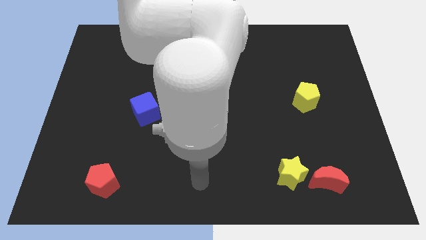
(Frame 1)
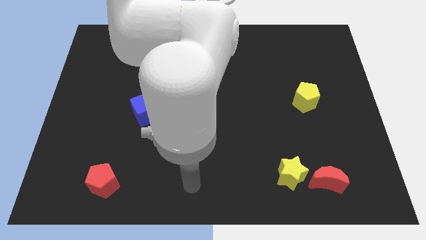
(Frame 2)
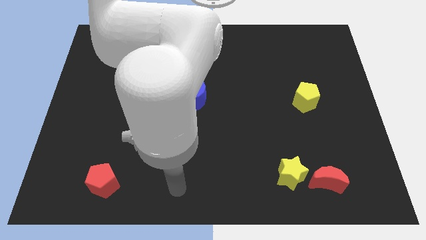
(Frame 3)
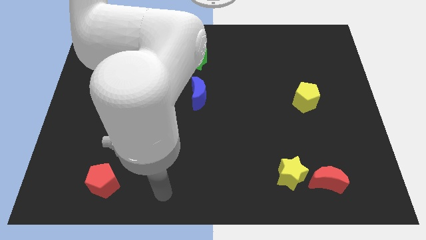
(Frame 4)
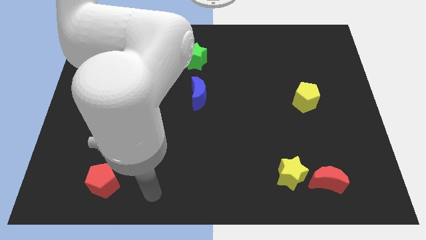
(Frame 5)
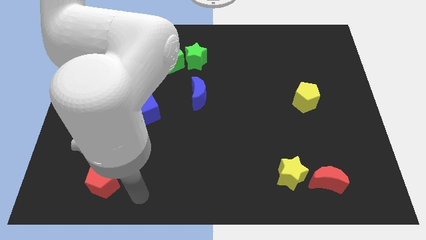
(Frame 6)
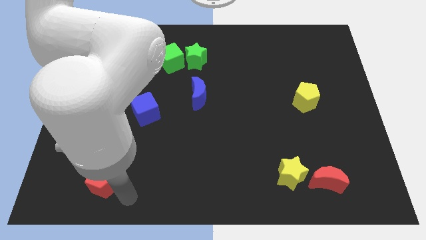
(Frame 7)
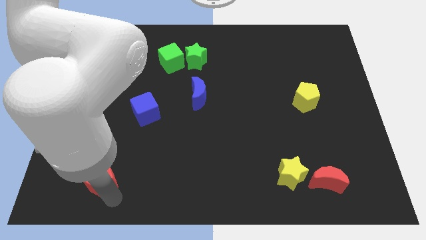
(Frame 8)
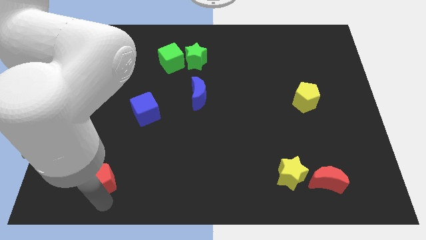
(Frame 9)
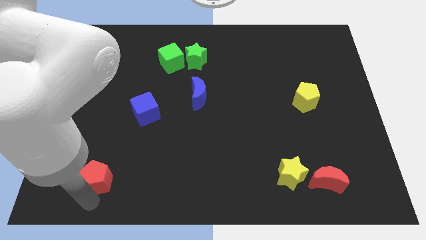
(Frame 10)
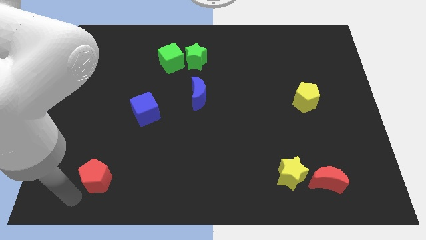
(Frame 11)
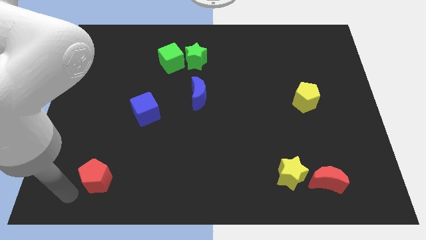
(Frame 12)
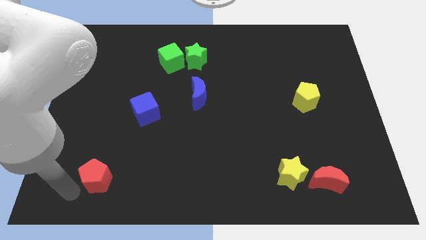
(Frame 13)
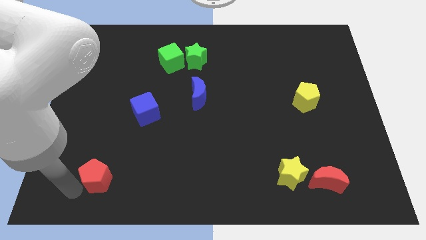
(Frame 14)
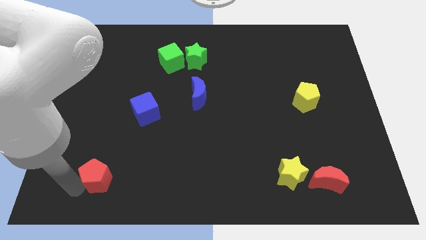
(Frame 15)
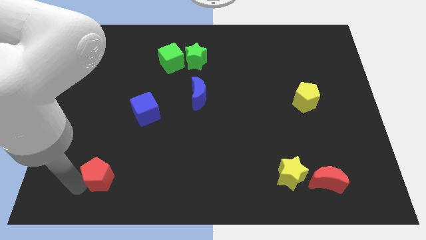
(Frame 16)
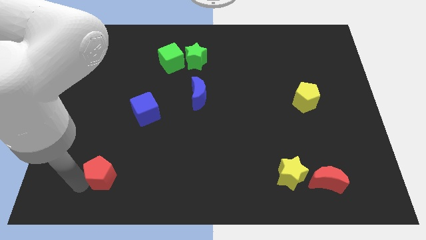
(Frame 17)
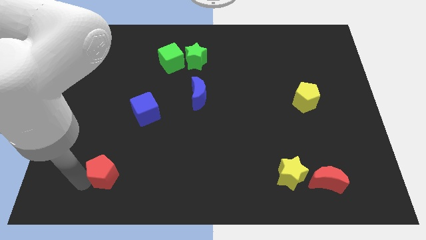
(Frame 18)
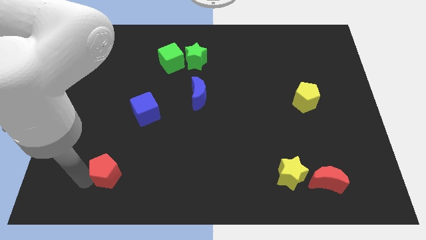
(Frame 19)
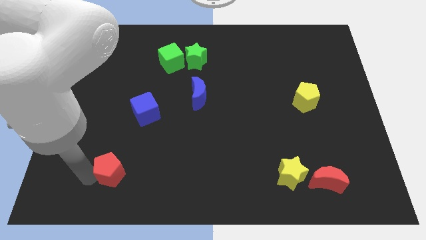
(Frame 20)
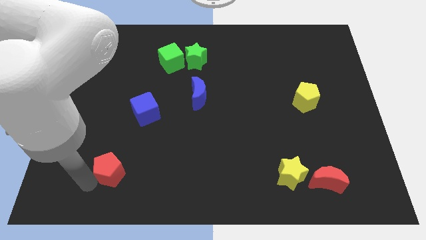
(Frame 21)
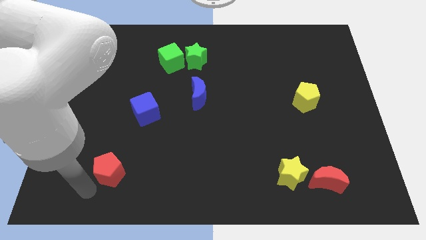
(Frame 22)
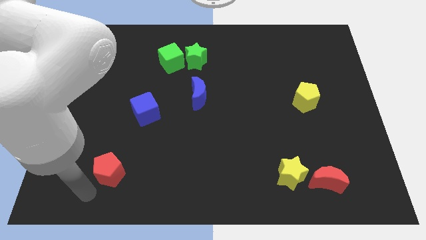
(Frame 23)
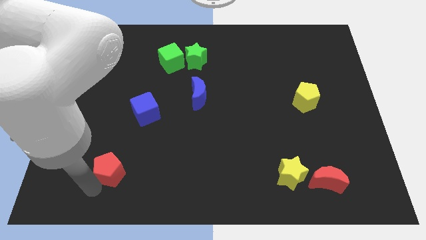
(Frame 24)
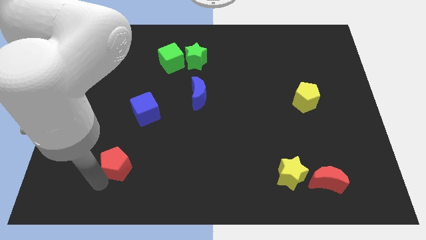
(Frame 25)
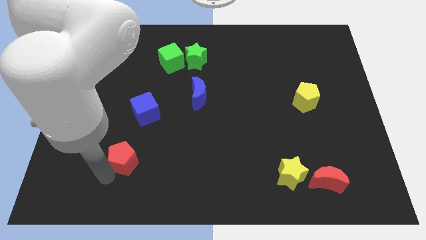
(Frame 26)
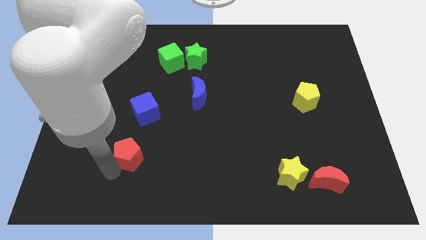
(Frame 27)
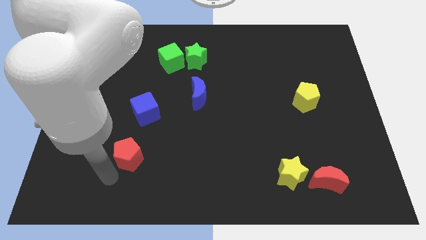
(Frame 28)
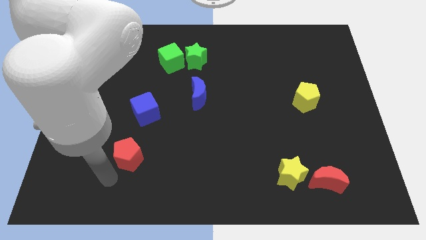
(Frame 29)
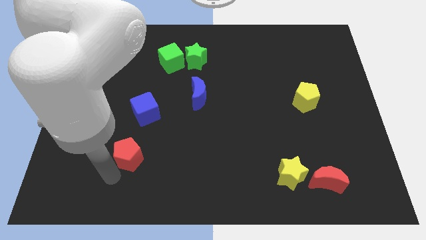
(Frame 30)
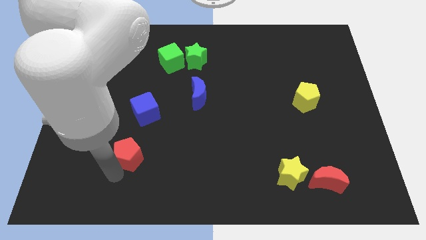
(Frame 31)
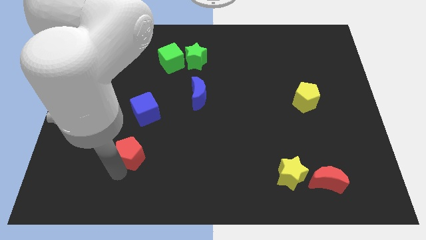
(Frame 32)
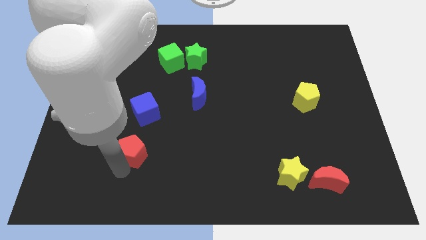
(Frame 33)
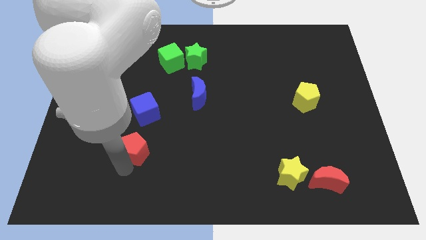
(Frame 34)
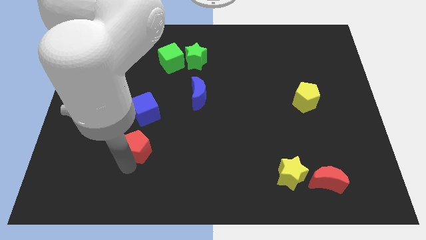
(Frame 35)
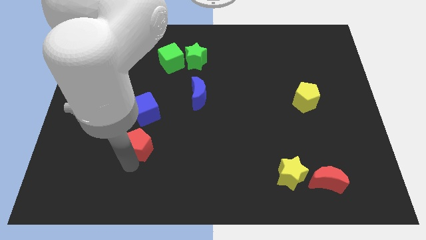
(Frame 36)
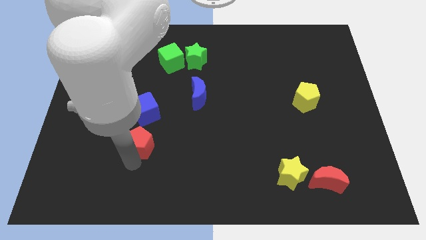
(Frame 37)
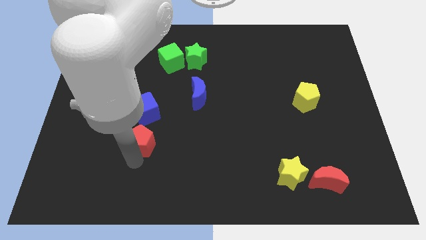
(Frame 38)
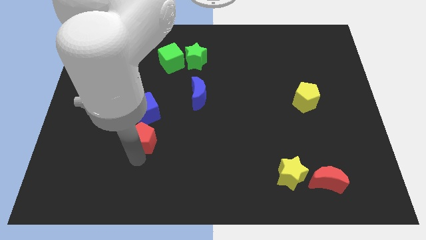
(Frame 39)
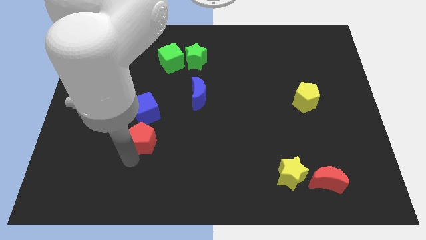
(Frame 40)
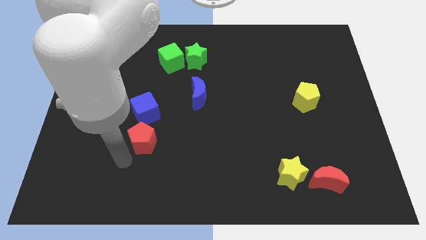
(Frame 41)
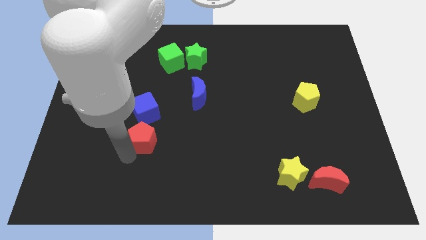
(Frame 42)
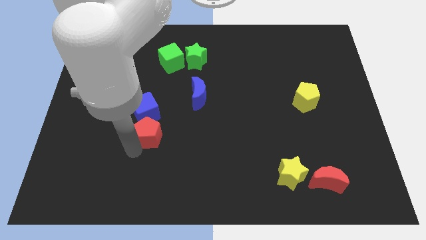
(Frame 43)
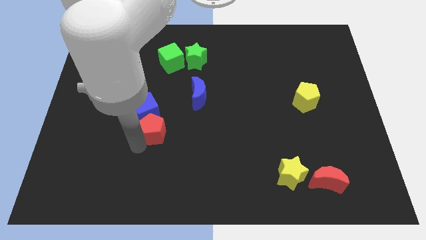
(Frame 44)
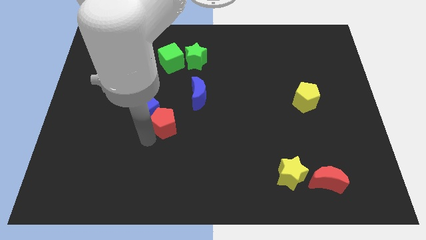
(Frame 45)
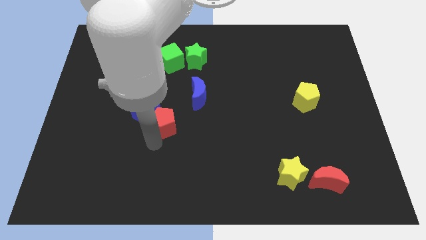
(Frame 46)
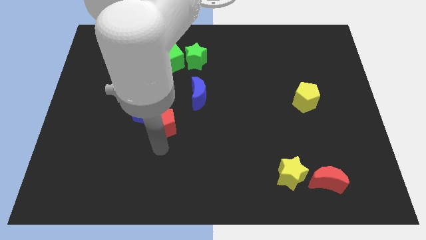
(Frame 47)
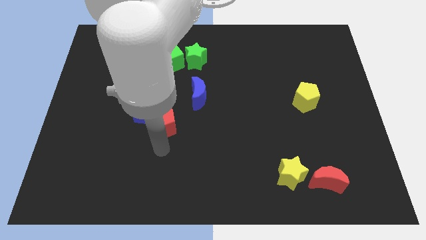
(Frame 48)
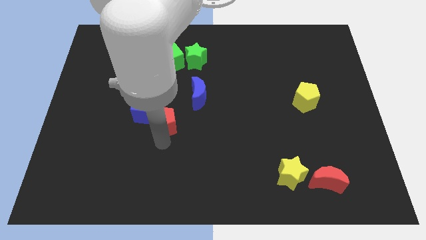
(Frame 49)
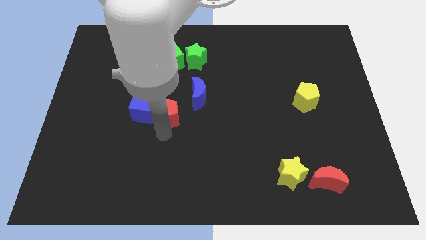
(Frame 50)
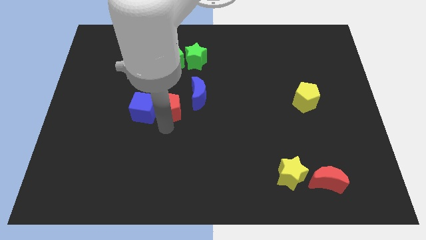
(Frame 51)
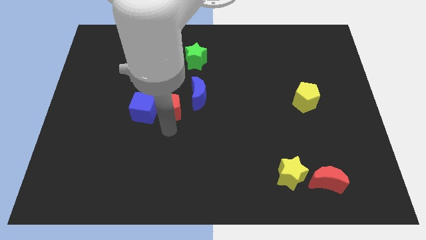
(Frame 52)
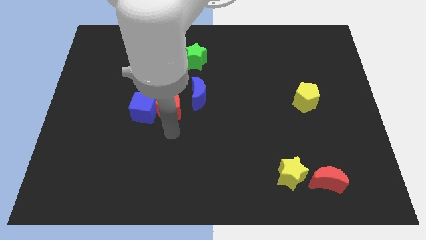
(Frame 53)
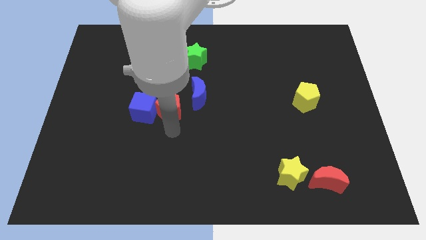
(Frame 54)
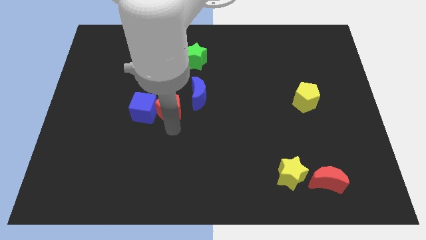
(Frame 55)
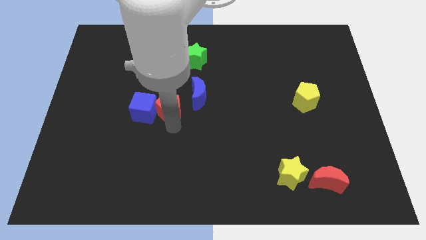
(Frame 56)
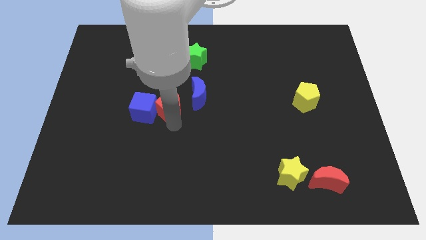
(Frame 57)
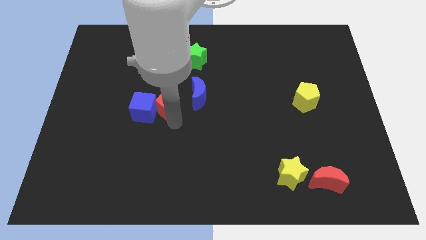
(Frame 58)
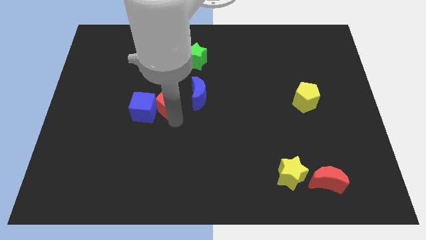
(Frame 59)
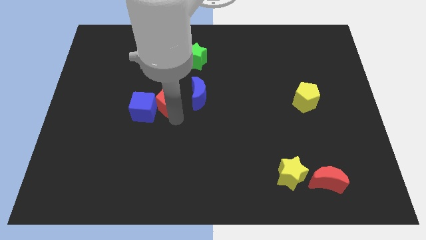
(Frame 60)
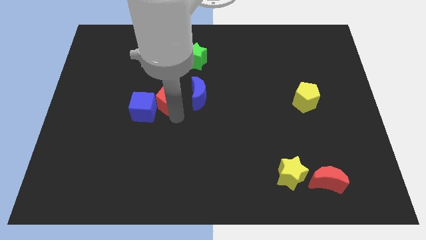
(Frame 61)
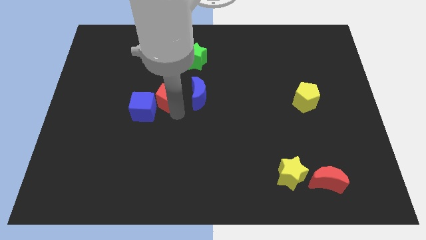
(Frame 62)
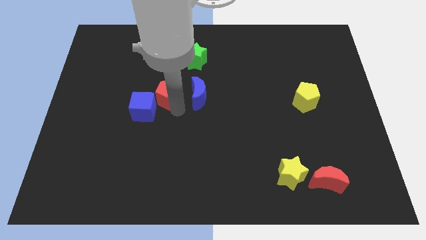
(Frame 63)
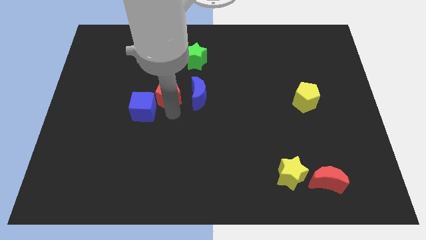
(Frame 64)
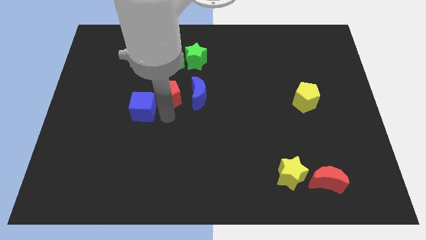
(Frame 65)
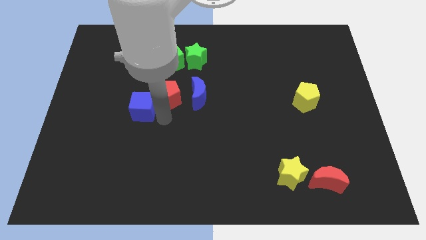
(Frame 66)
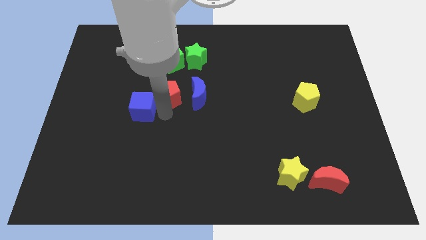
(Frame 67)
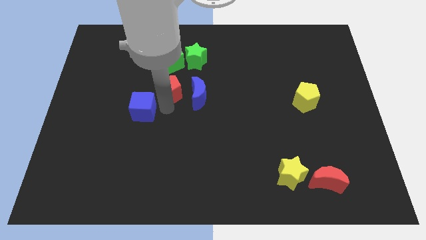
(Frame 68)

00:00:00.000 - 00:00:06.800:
push the red pentagon diagonally down and to the left of the green star
